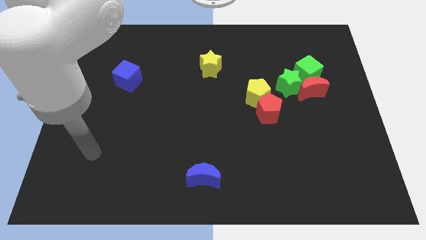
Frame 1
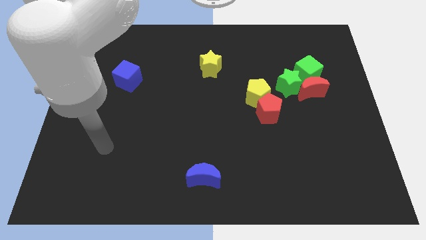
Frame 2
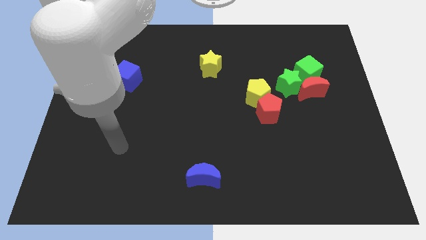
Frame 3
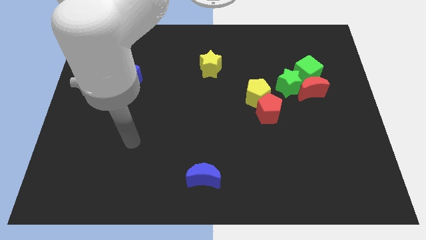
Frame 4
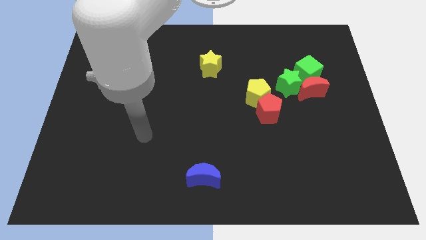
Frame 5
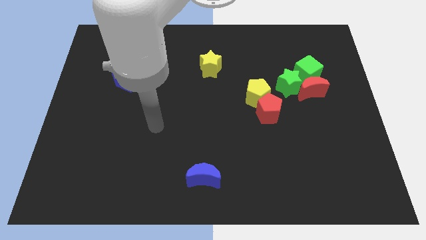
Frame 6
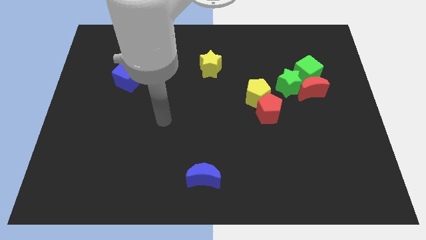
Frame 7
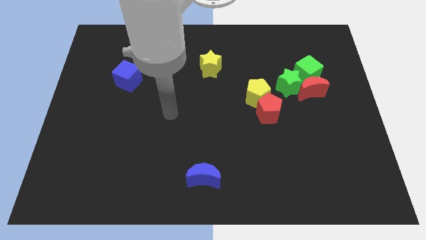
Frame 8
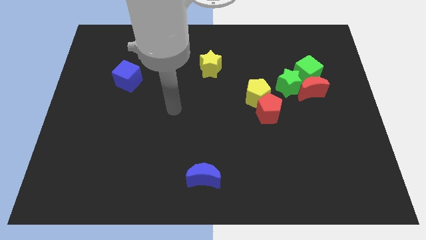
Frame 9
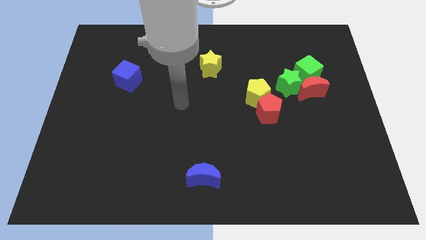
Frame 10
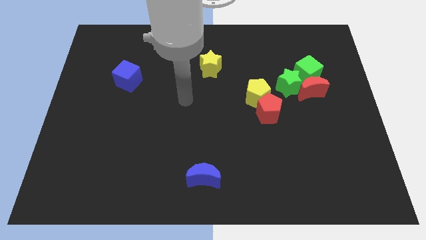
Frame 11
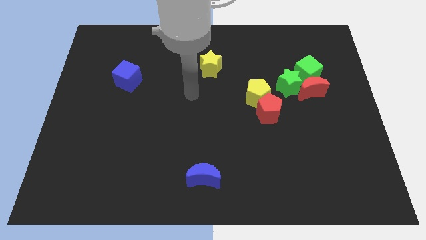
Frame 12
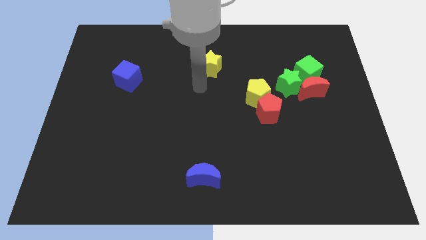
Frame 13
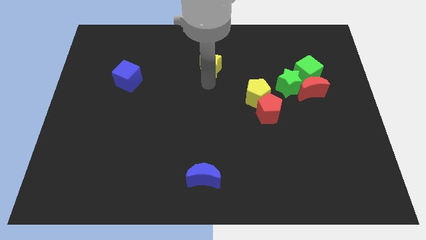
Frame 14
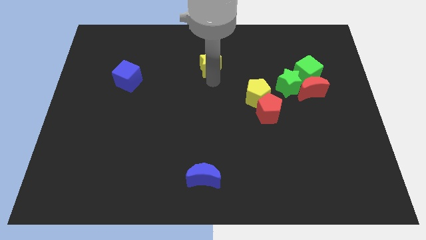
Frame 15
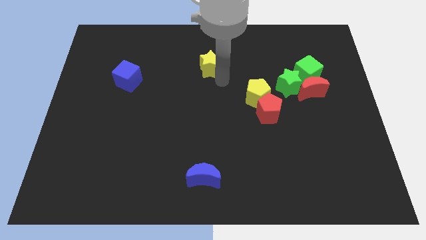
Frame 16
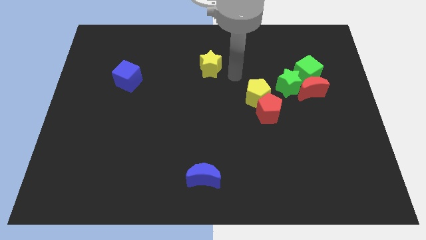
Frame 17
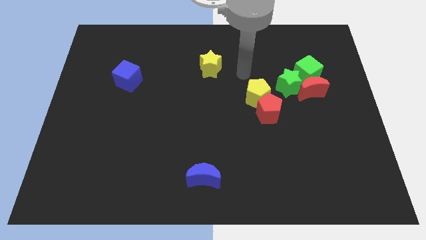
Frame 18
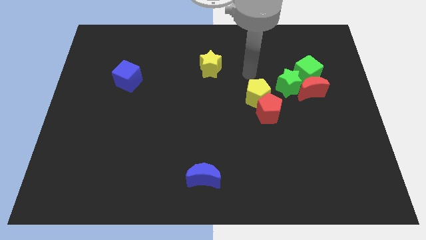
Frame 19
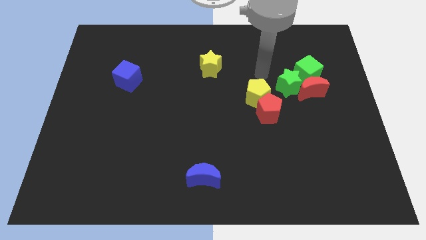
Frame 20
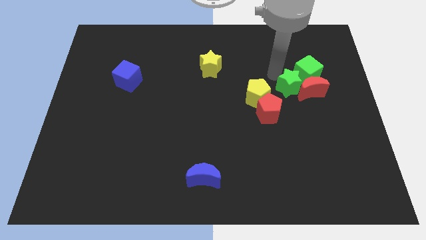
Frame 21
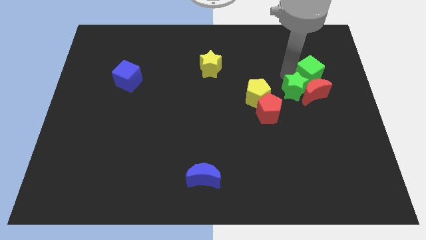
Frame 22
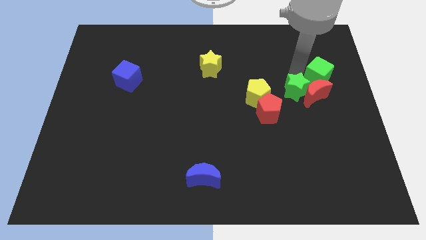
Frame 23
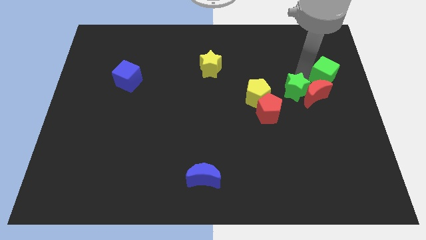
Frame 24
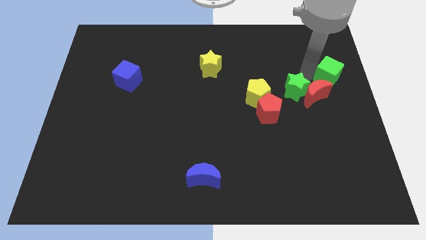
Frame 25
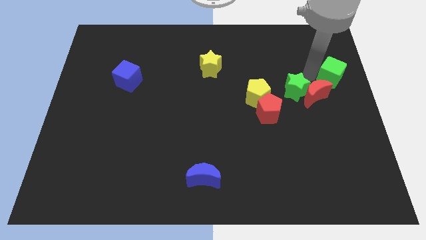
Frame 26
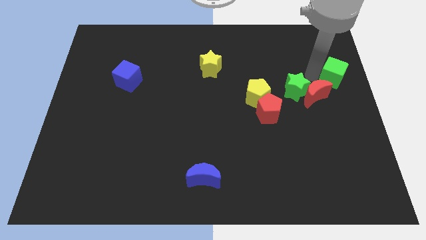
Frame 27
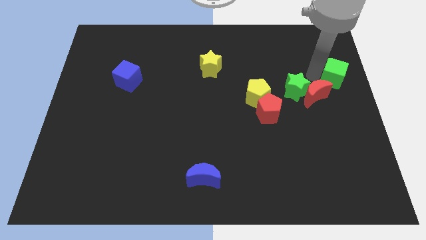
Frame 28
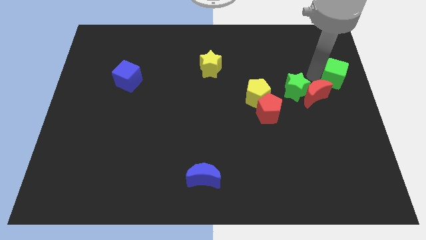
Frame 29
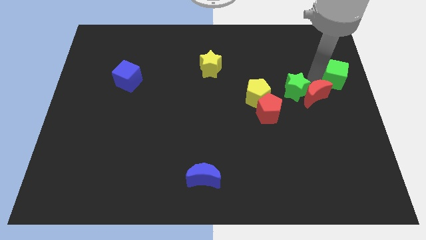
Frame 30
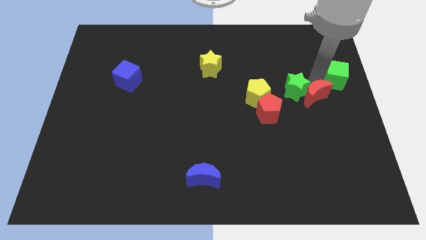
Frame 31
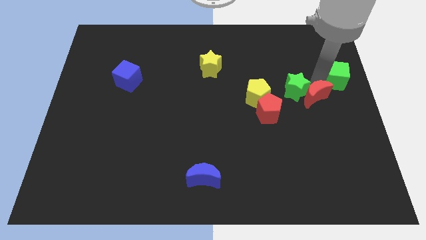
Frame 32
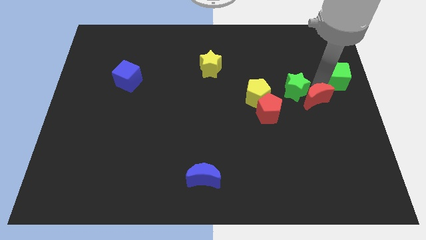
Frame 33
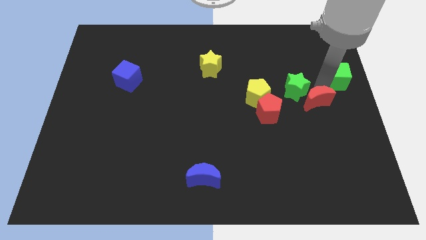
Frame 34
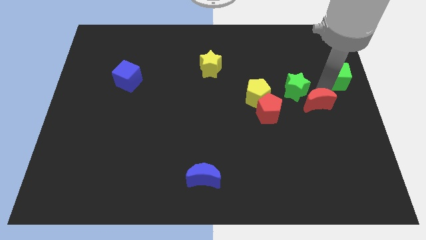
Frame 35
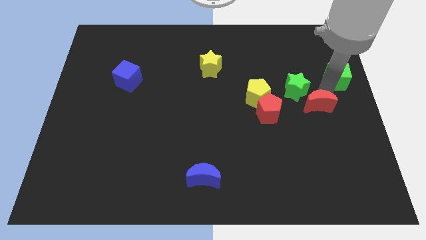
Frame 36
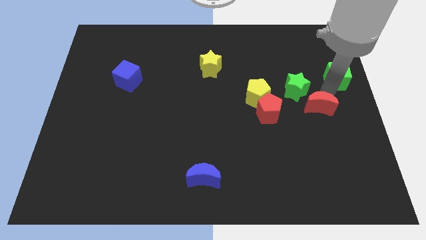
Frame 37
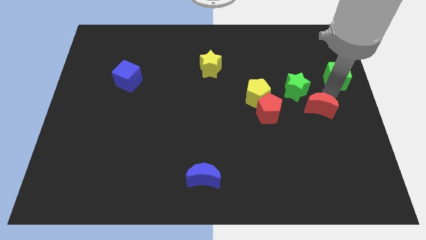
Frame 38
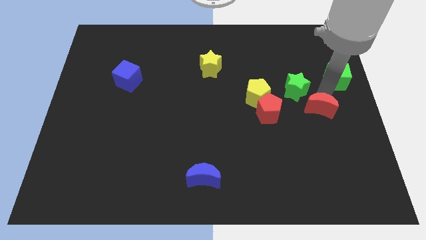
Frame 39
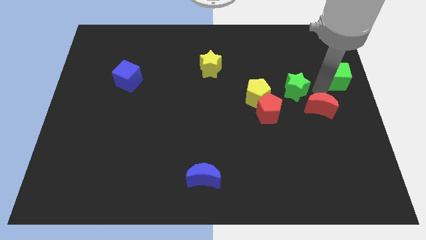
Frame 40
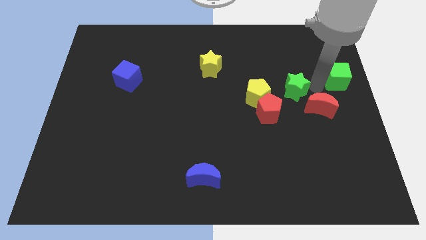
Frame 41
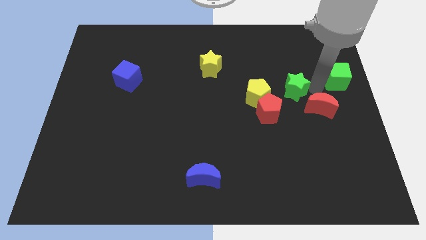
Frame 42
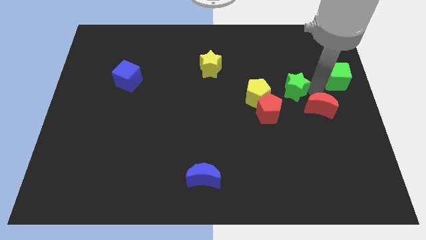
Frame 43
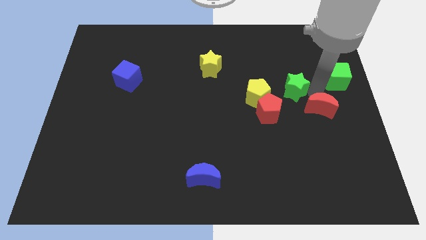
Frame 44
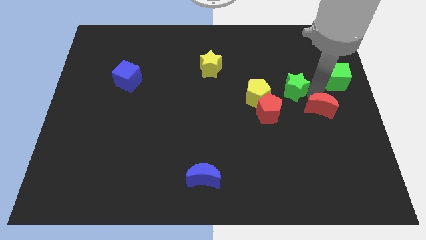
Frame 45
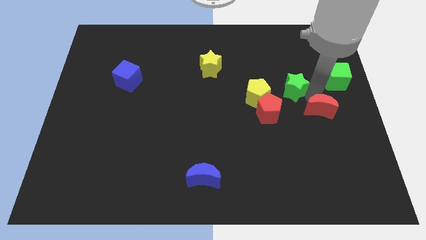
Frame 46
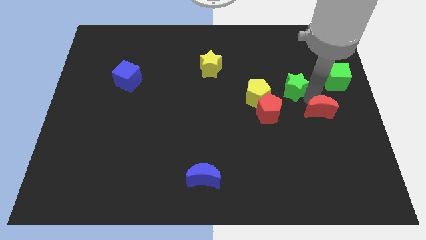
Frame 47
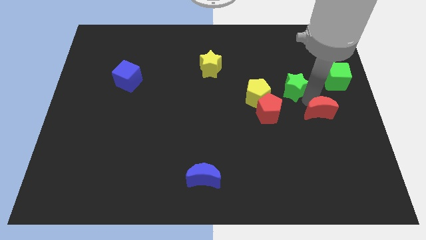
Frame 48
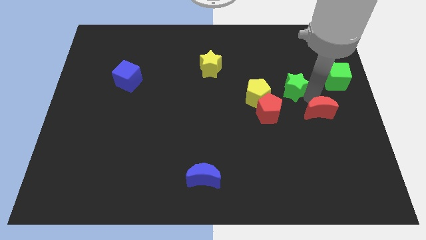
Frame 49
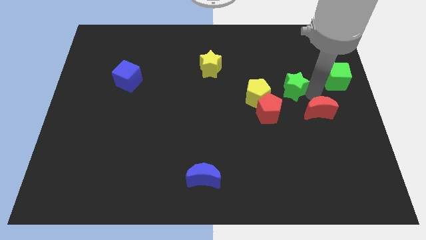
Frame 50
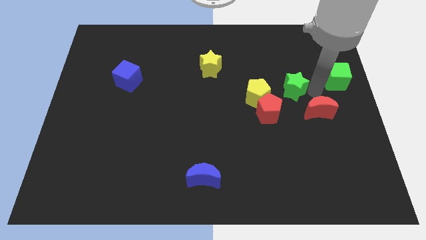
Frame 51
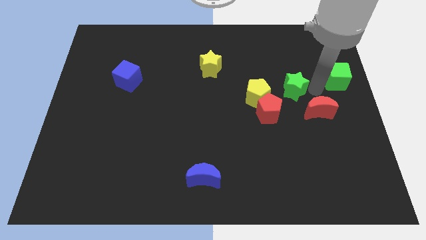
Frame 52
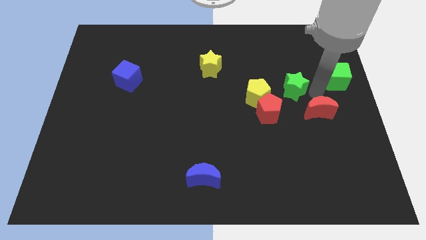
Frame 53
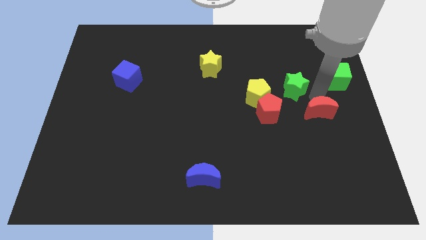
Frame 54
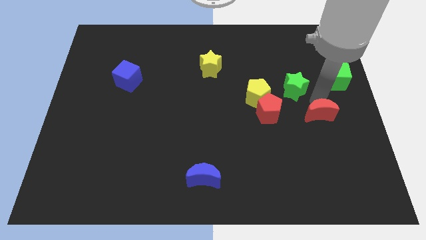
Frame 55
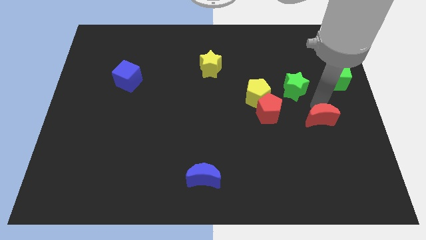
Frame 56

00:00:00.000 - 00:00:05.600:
separate the red moon from the green cube and green star

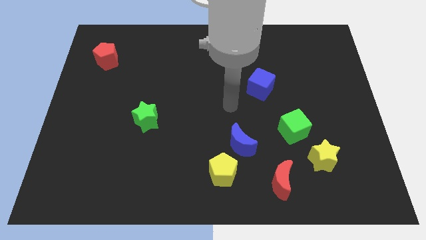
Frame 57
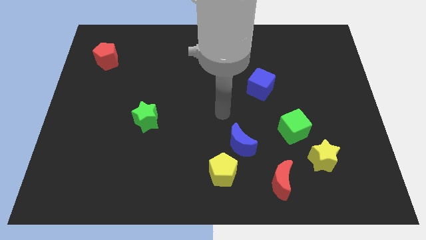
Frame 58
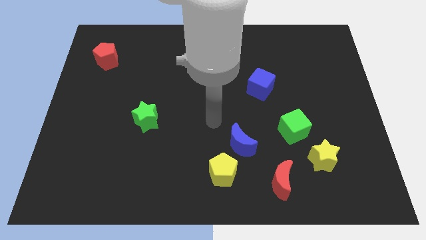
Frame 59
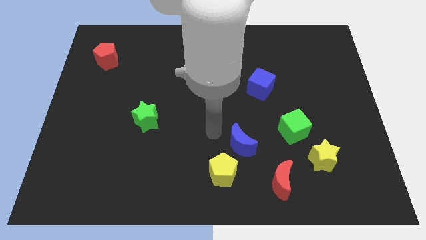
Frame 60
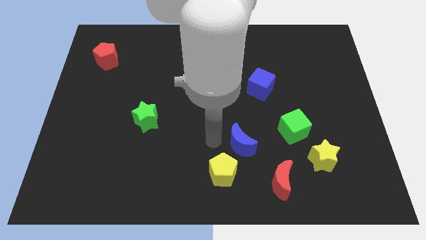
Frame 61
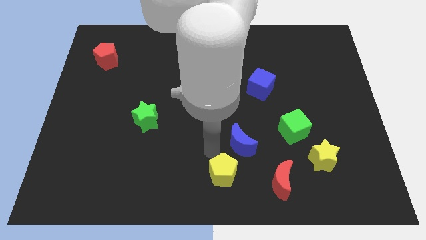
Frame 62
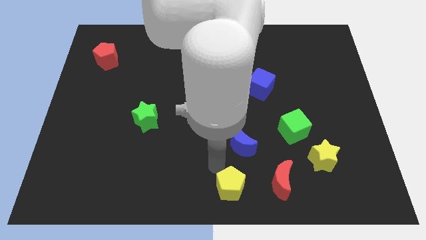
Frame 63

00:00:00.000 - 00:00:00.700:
move the blue moon away from the yellow pentagon

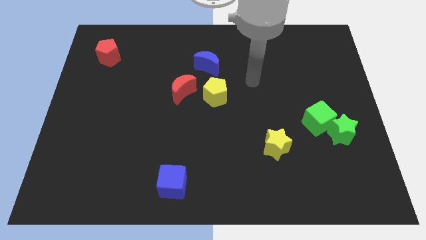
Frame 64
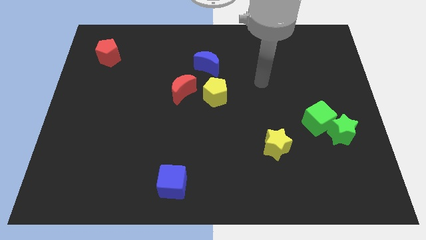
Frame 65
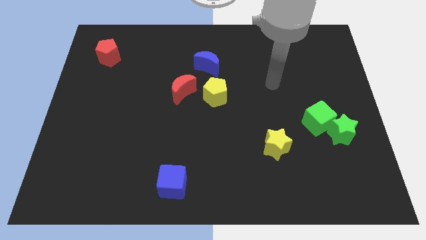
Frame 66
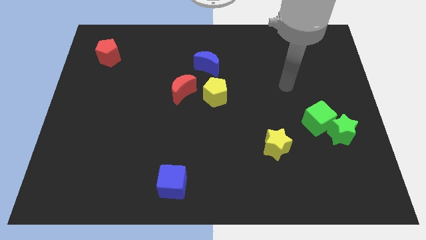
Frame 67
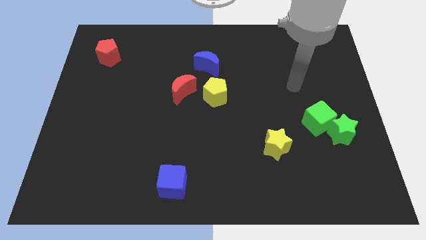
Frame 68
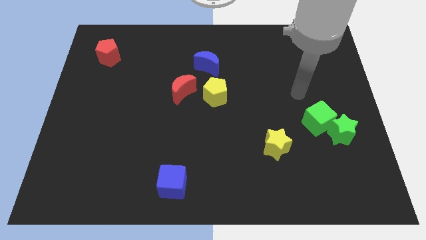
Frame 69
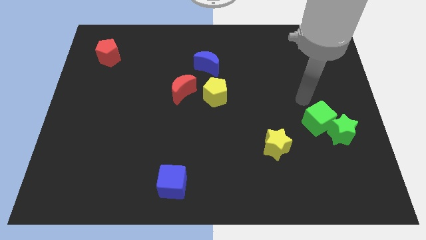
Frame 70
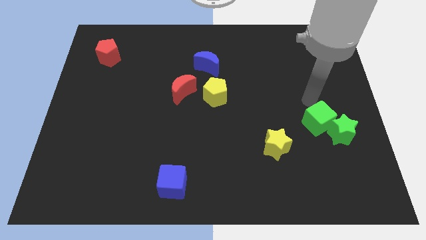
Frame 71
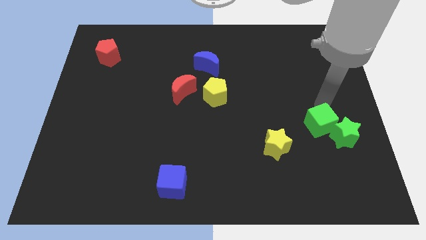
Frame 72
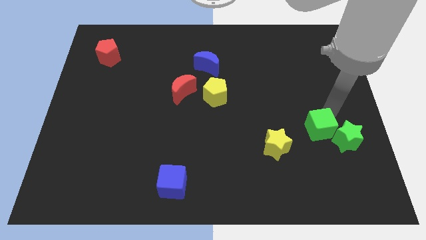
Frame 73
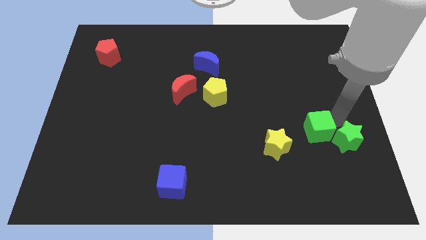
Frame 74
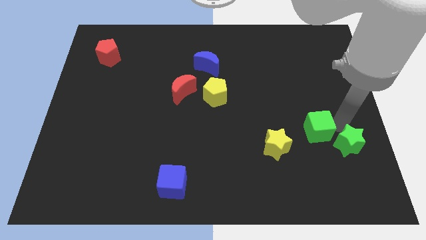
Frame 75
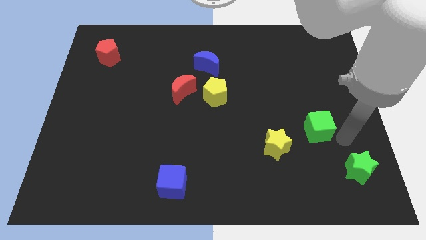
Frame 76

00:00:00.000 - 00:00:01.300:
pull the green cube apart from the green star

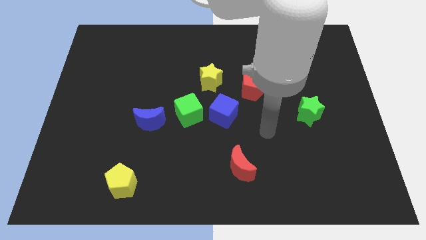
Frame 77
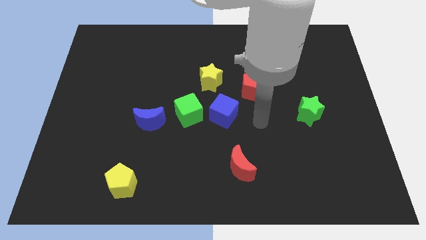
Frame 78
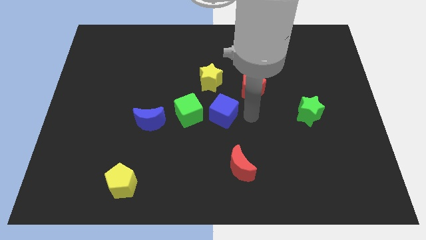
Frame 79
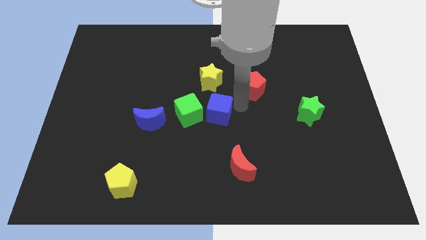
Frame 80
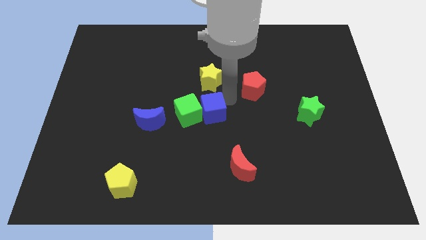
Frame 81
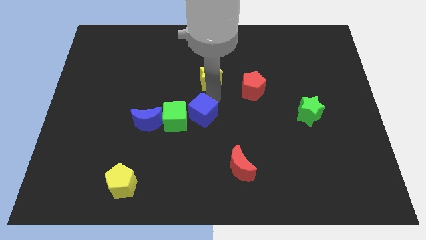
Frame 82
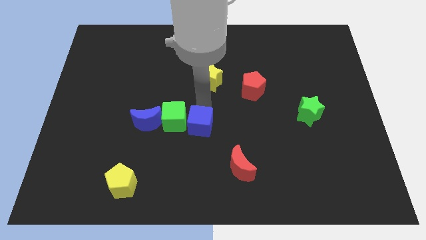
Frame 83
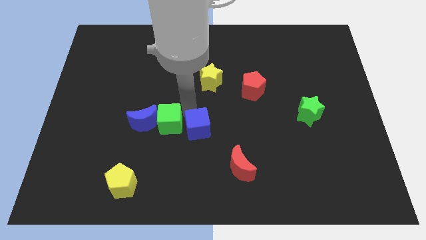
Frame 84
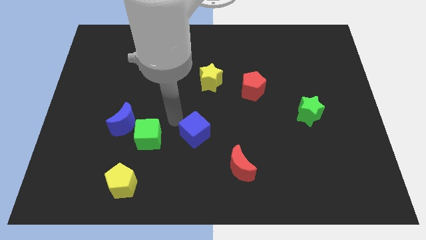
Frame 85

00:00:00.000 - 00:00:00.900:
pull the blue cube apart from the green cube

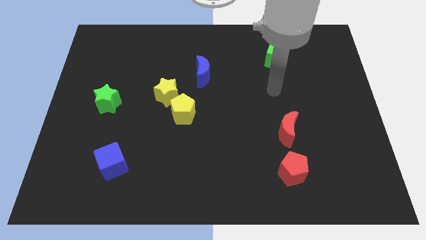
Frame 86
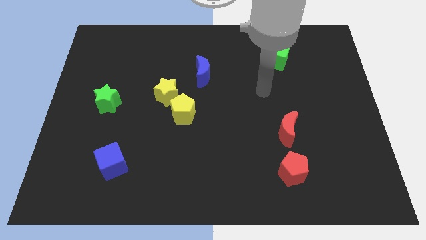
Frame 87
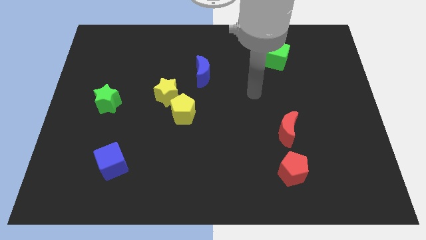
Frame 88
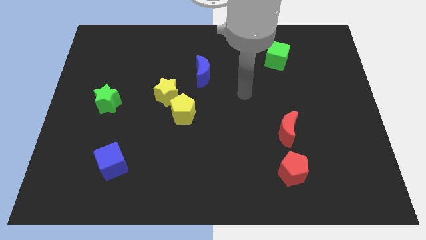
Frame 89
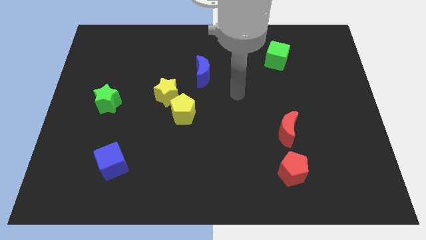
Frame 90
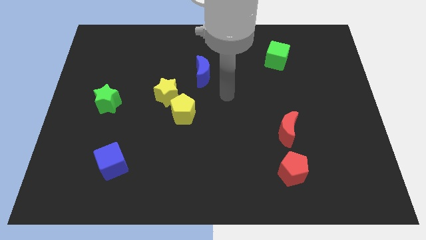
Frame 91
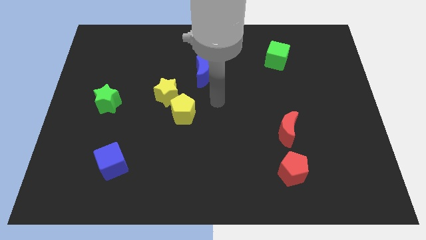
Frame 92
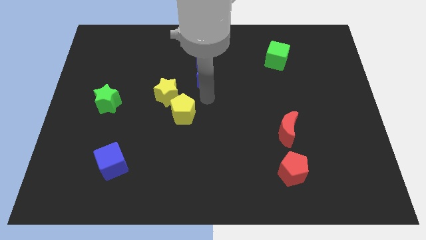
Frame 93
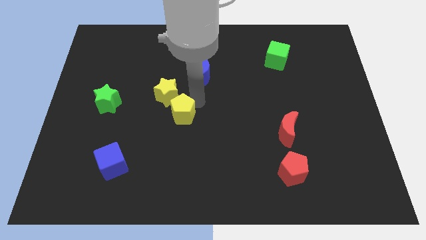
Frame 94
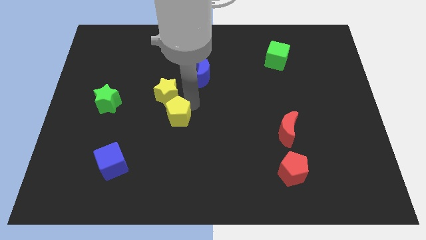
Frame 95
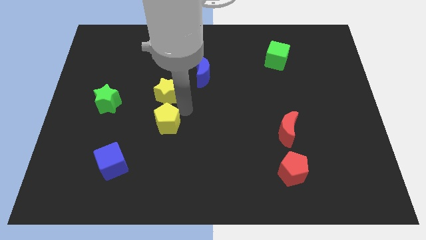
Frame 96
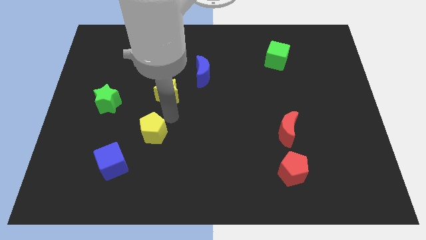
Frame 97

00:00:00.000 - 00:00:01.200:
separate the yellow star from the yellow pentagon
